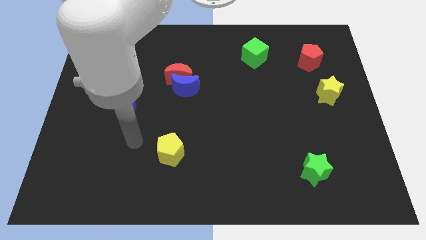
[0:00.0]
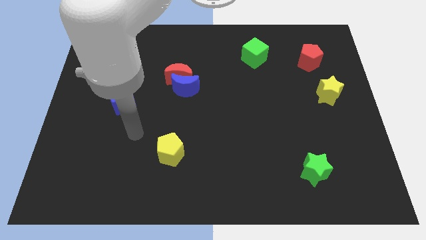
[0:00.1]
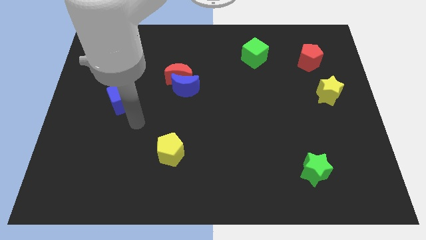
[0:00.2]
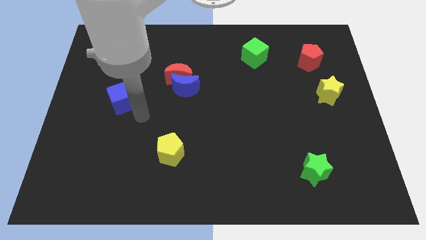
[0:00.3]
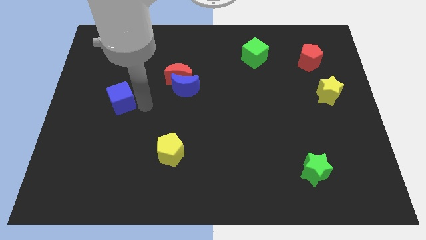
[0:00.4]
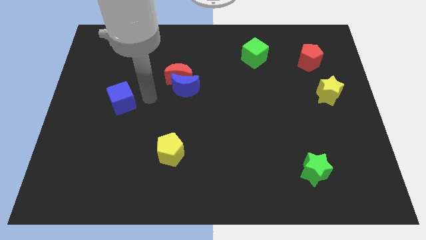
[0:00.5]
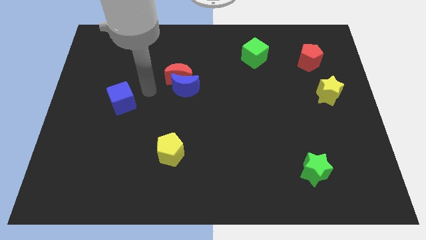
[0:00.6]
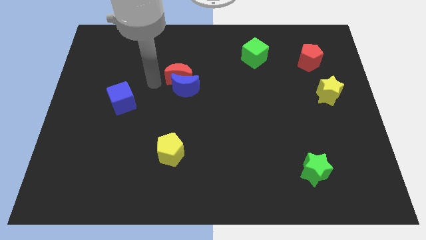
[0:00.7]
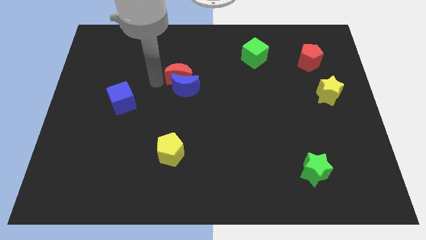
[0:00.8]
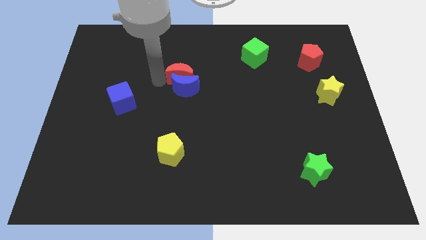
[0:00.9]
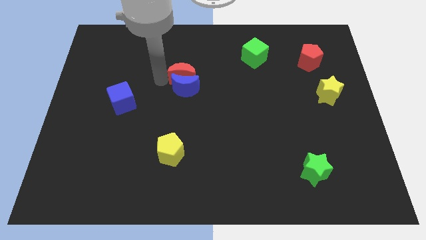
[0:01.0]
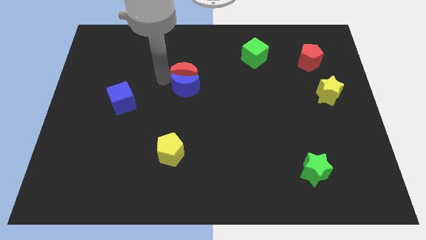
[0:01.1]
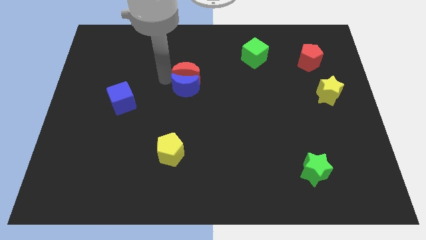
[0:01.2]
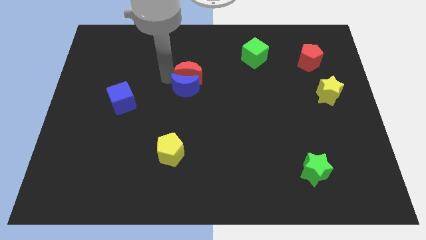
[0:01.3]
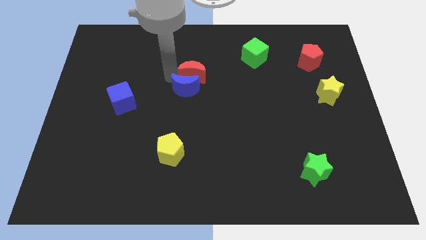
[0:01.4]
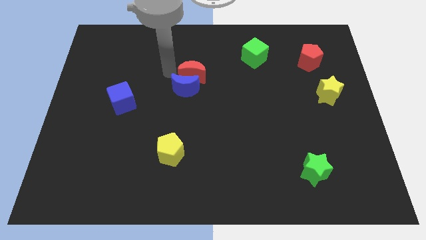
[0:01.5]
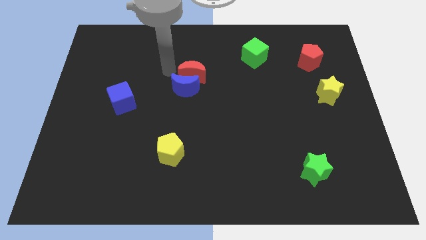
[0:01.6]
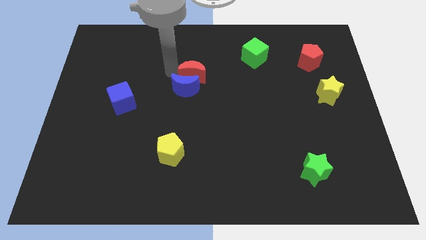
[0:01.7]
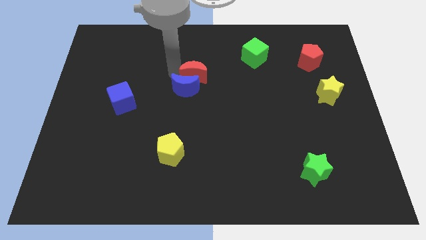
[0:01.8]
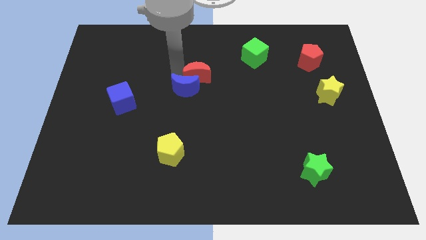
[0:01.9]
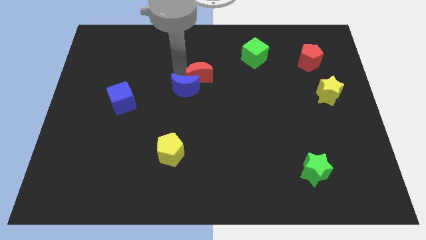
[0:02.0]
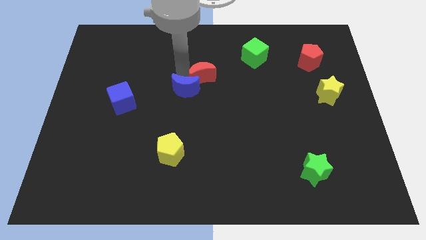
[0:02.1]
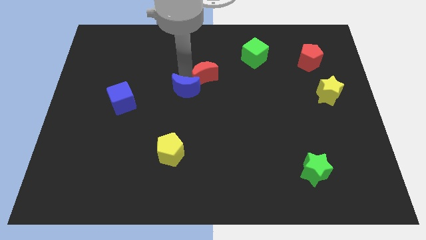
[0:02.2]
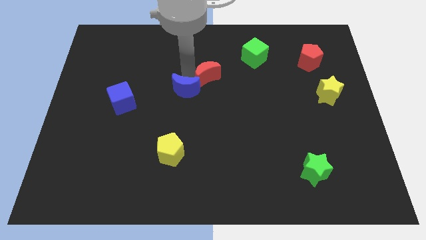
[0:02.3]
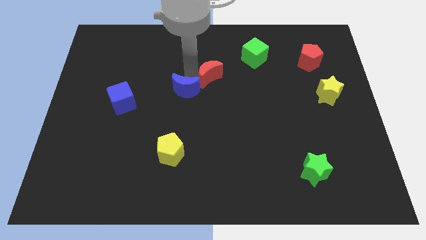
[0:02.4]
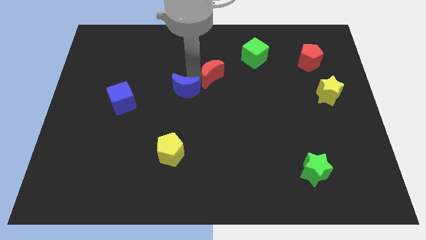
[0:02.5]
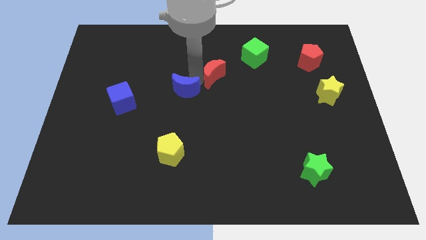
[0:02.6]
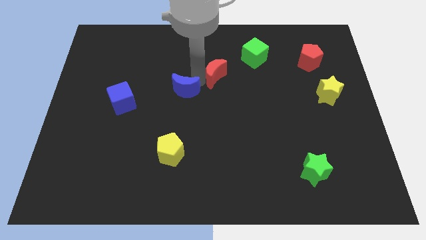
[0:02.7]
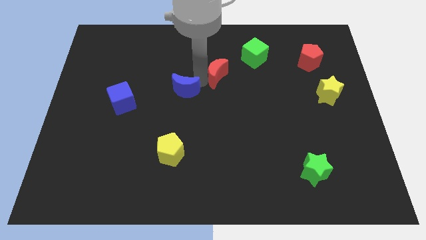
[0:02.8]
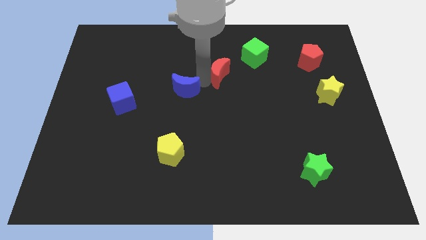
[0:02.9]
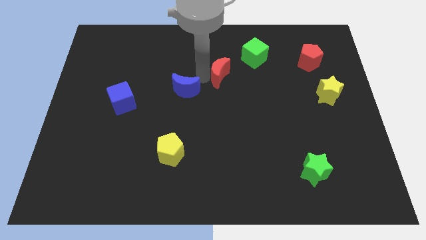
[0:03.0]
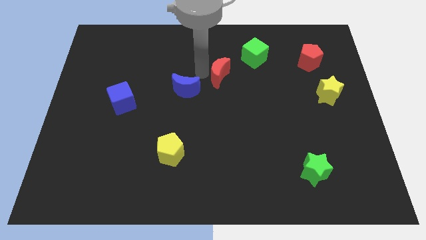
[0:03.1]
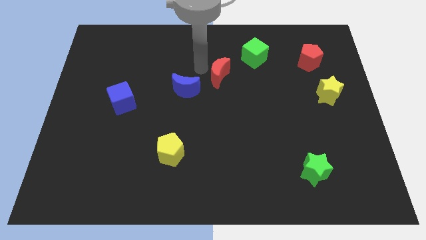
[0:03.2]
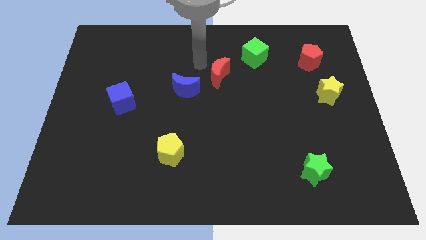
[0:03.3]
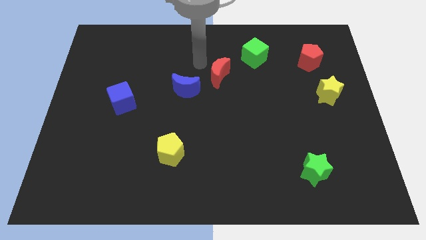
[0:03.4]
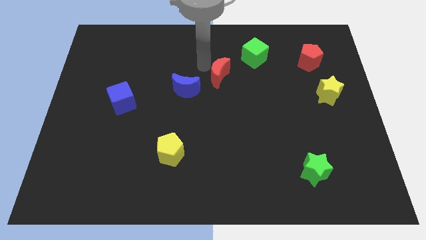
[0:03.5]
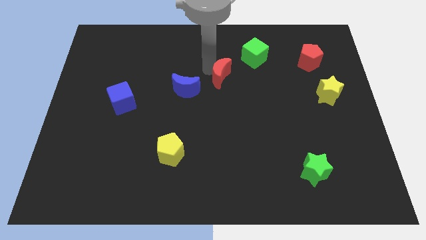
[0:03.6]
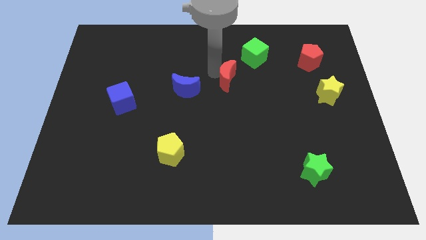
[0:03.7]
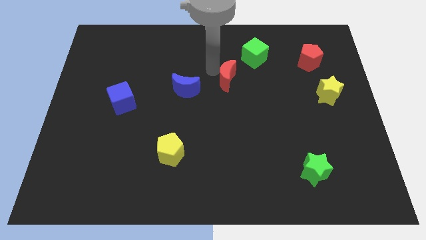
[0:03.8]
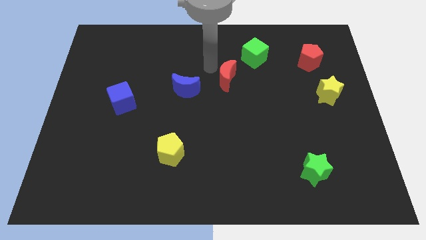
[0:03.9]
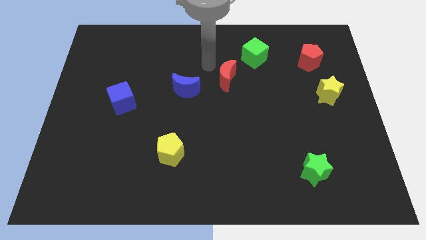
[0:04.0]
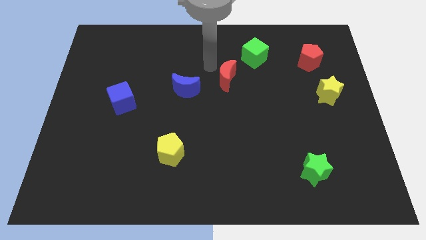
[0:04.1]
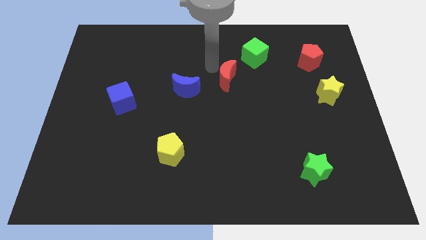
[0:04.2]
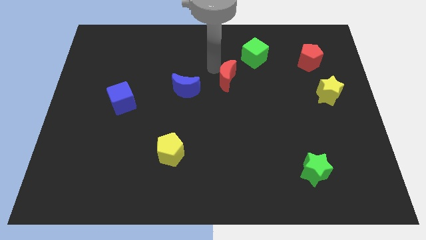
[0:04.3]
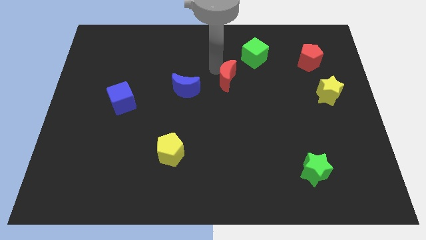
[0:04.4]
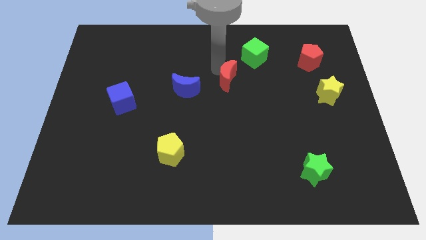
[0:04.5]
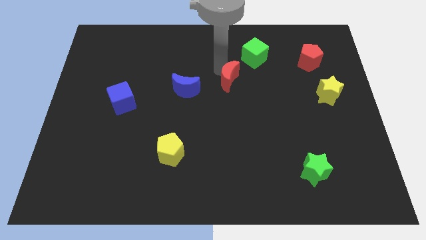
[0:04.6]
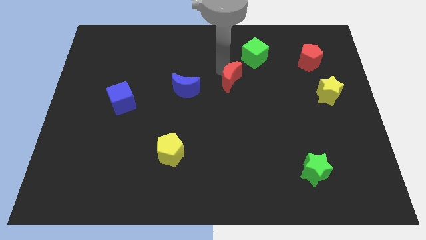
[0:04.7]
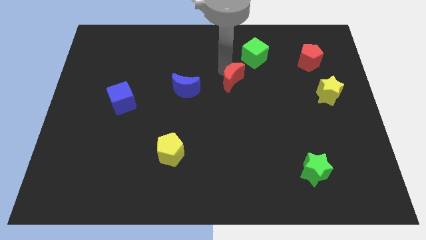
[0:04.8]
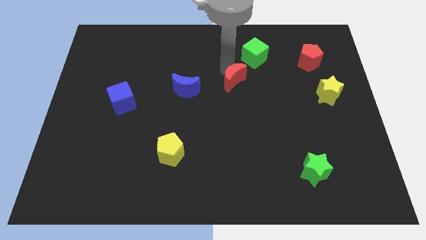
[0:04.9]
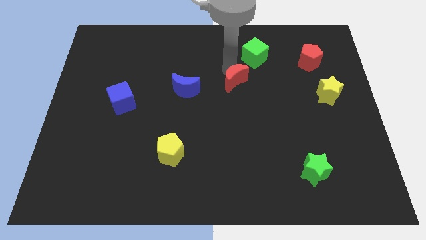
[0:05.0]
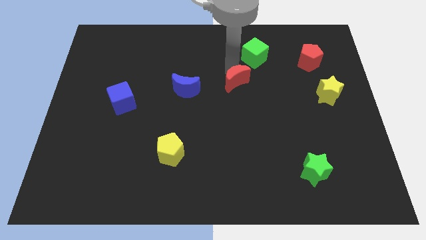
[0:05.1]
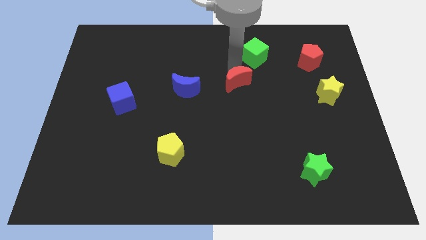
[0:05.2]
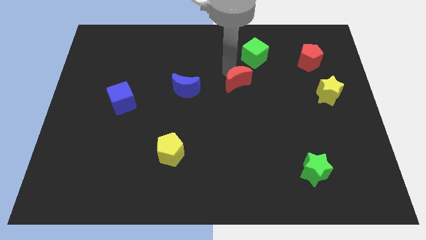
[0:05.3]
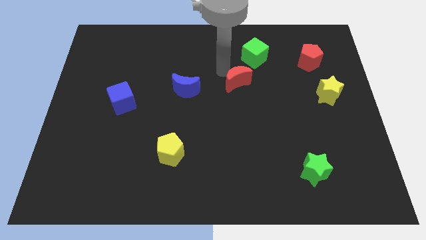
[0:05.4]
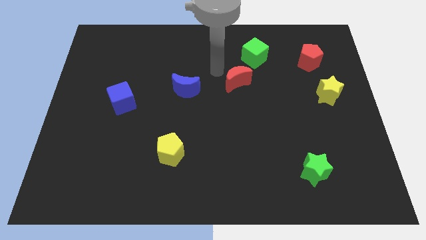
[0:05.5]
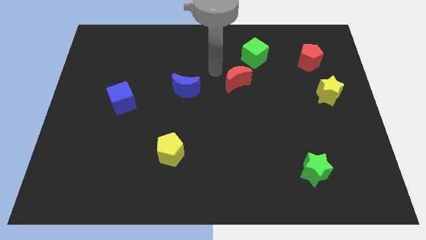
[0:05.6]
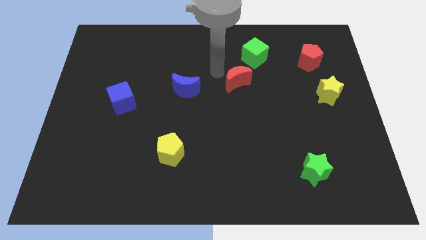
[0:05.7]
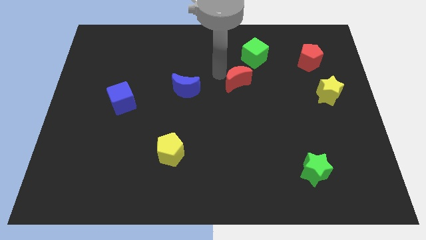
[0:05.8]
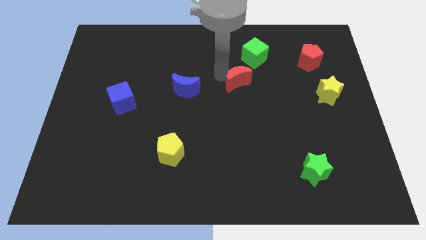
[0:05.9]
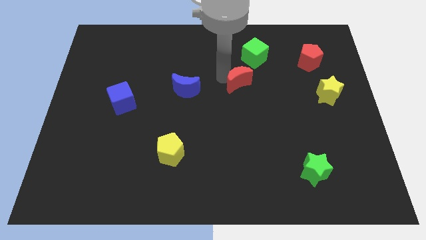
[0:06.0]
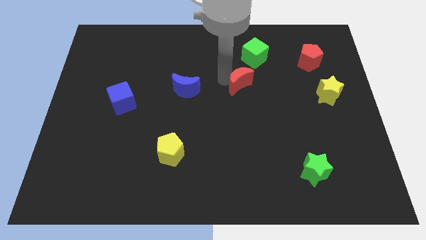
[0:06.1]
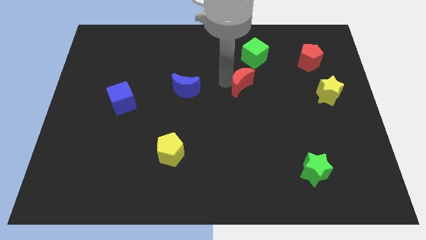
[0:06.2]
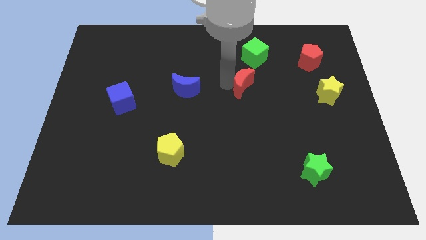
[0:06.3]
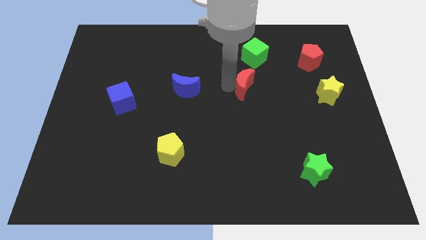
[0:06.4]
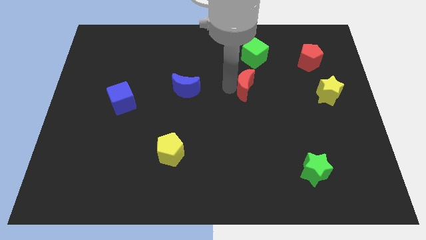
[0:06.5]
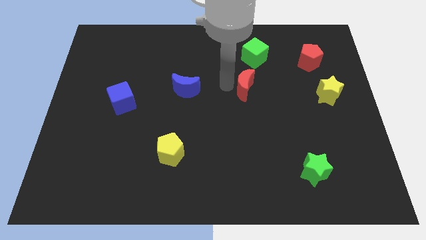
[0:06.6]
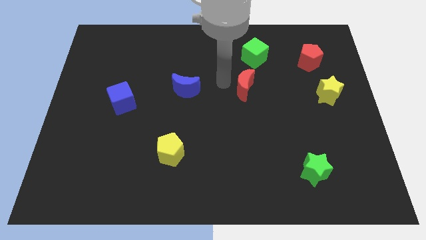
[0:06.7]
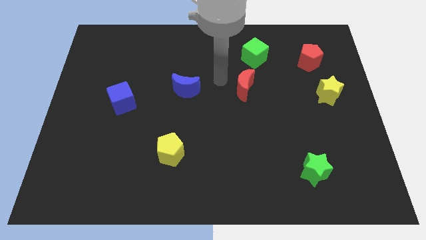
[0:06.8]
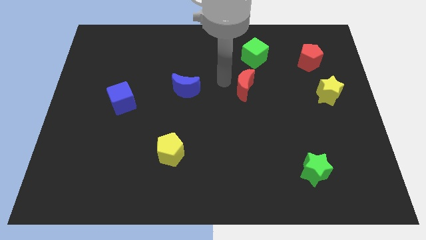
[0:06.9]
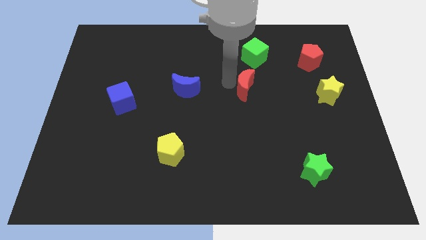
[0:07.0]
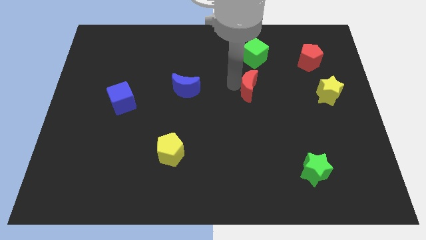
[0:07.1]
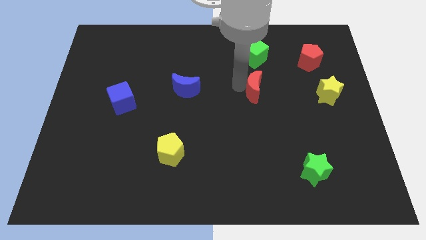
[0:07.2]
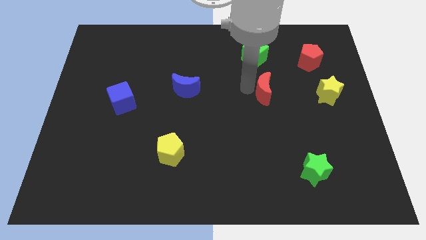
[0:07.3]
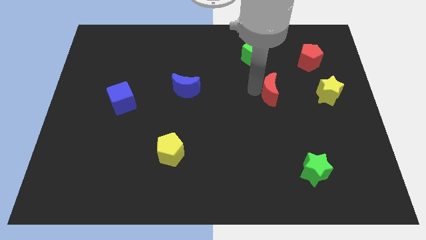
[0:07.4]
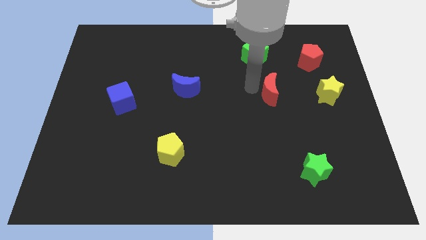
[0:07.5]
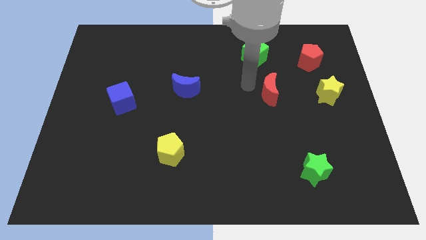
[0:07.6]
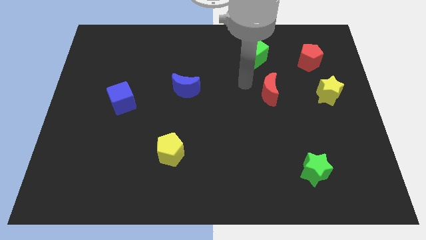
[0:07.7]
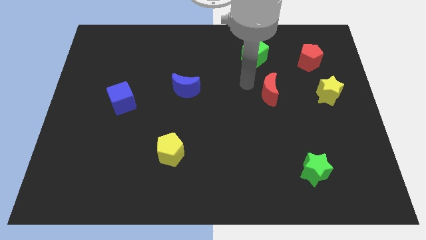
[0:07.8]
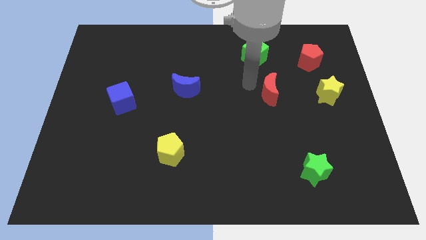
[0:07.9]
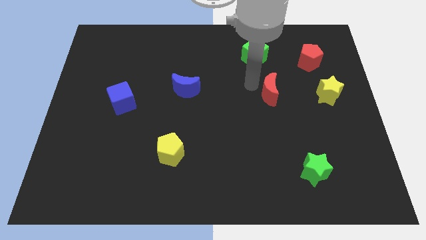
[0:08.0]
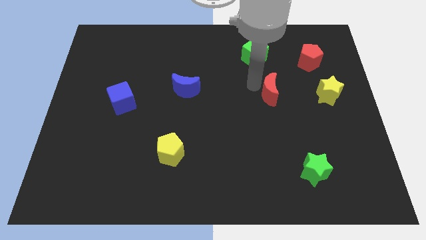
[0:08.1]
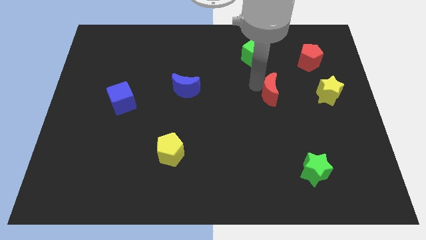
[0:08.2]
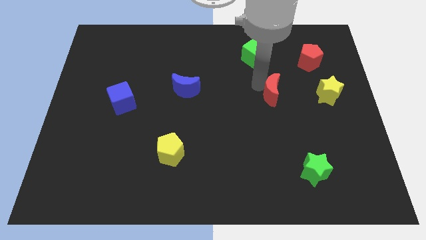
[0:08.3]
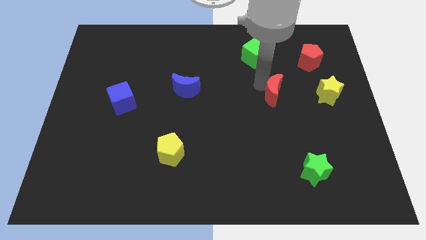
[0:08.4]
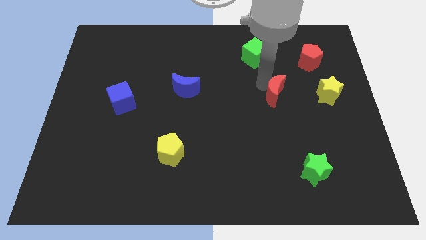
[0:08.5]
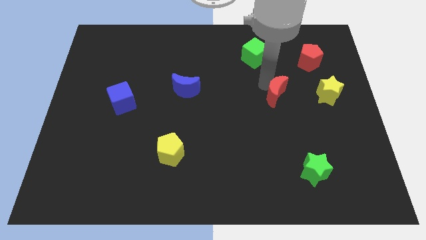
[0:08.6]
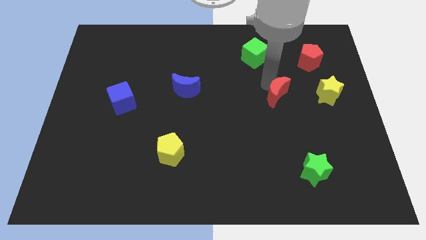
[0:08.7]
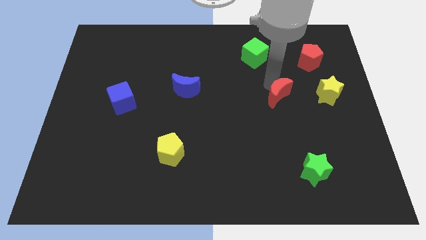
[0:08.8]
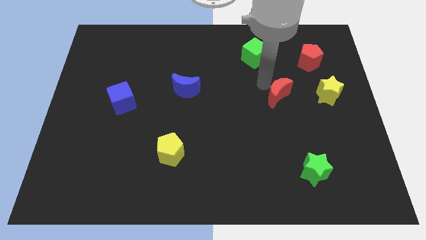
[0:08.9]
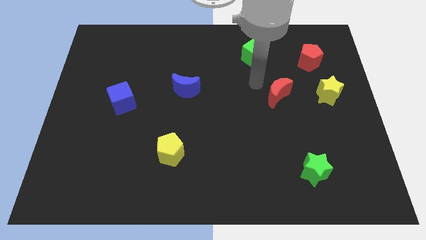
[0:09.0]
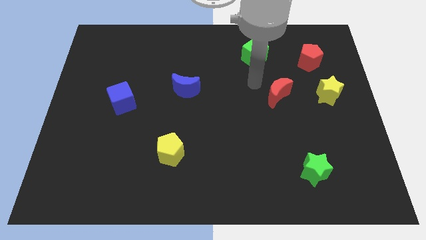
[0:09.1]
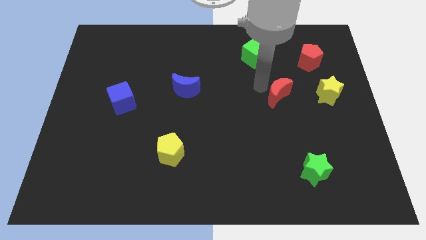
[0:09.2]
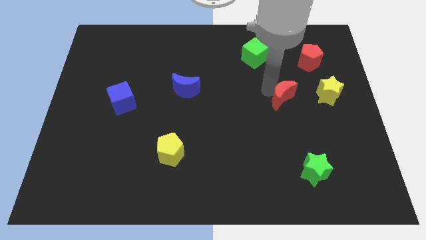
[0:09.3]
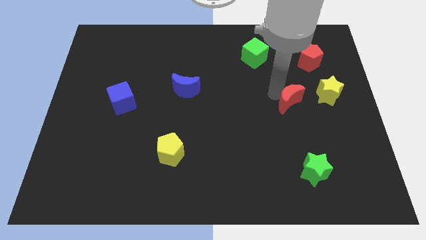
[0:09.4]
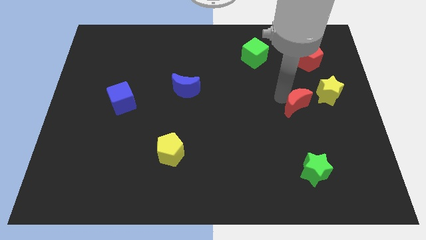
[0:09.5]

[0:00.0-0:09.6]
push the red moon to the bottom left of the yellow star
